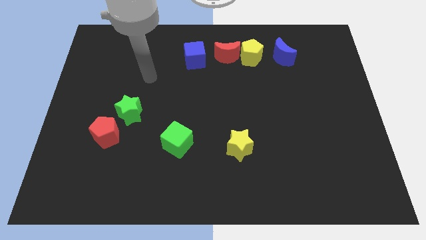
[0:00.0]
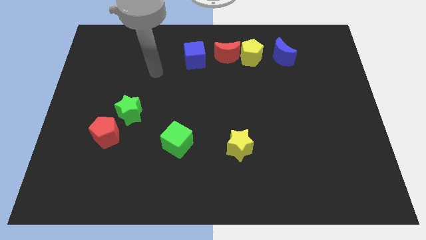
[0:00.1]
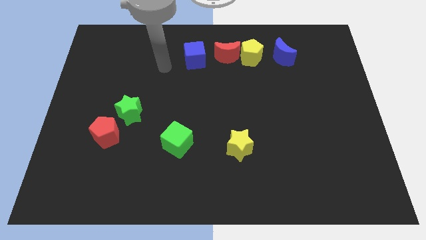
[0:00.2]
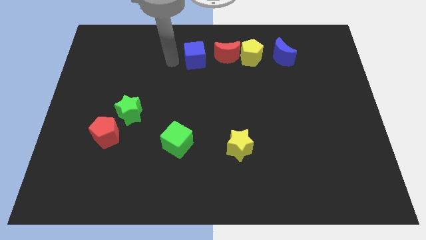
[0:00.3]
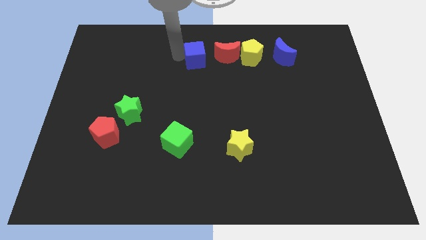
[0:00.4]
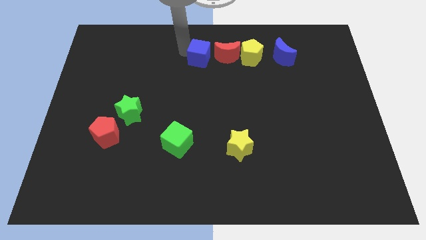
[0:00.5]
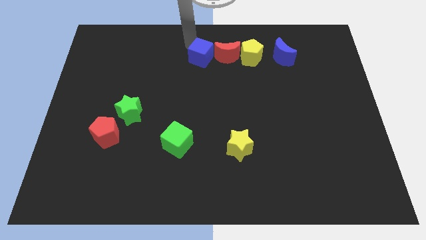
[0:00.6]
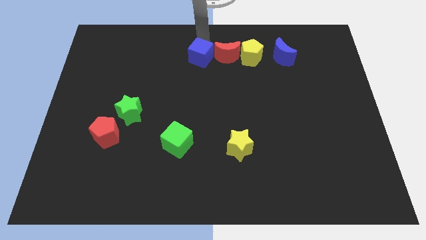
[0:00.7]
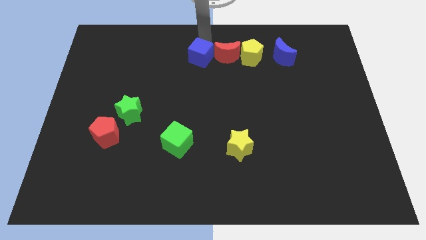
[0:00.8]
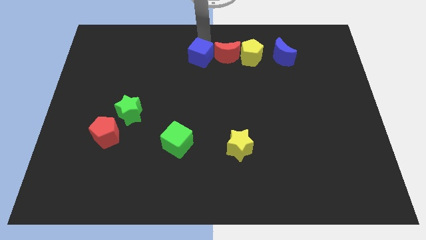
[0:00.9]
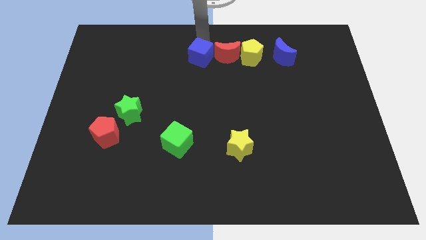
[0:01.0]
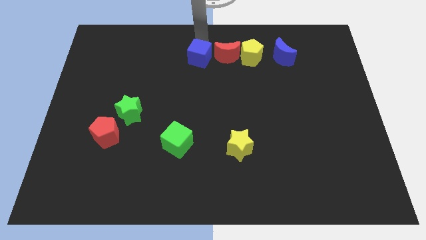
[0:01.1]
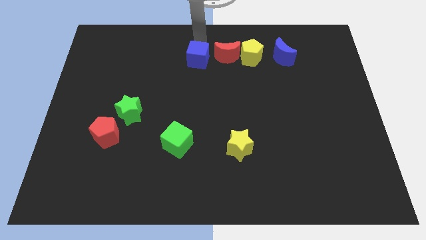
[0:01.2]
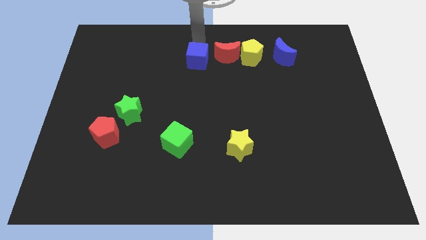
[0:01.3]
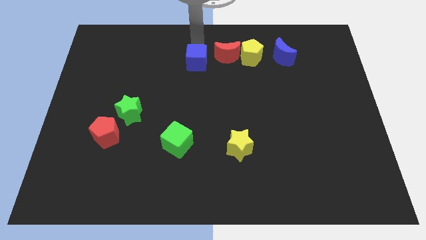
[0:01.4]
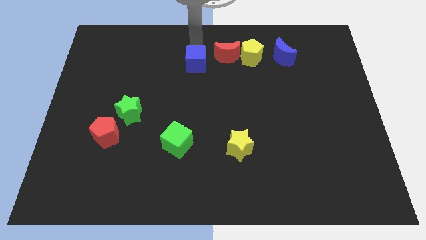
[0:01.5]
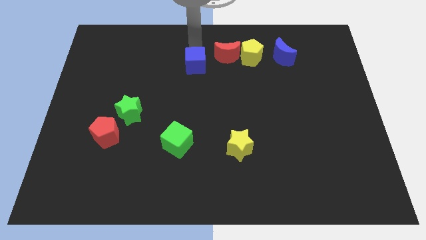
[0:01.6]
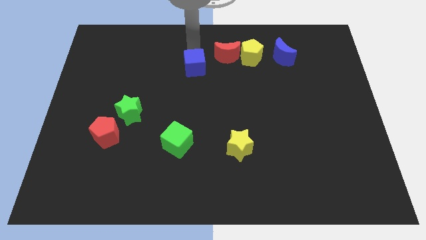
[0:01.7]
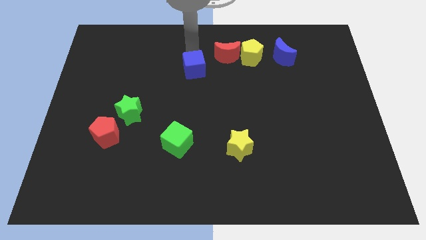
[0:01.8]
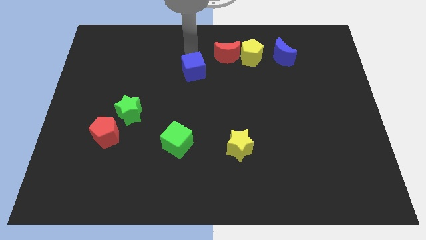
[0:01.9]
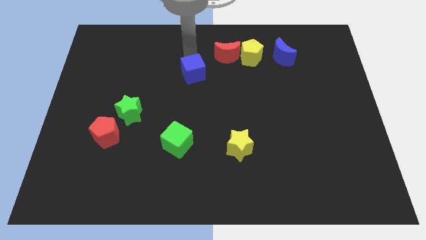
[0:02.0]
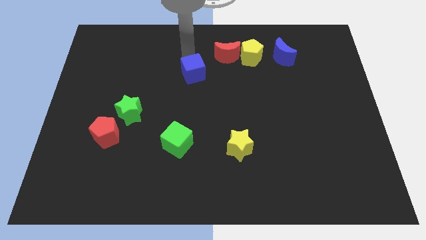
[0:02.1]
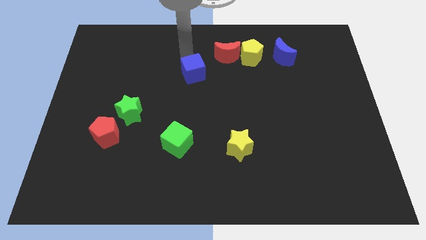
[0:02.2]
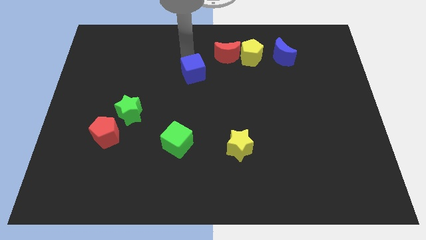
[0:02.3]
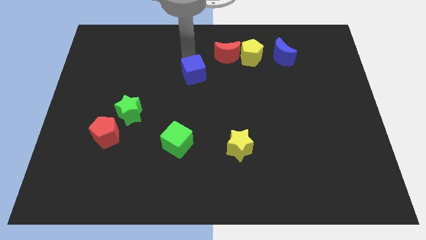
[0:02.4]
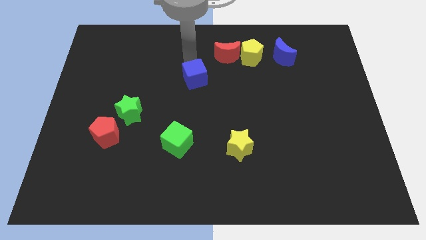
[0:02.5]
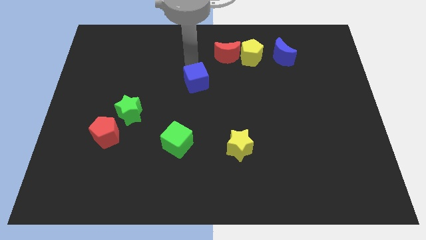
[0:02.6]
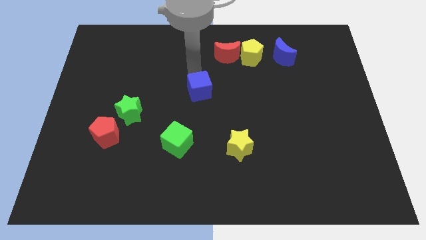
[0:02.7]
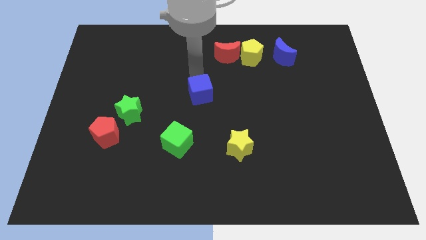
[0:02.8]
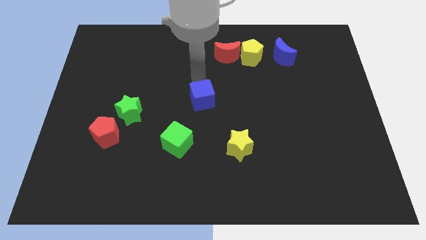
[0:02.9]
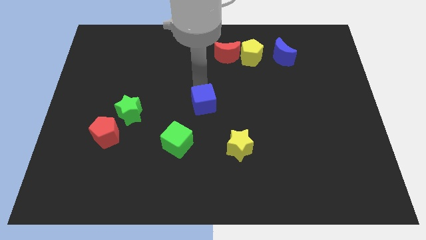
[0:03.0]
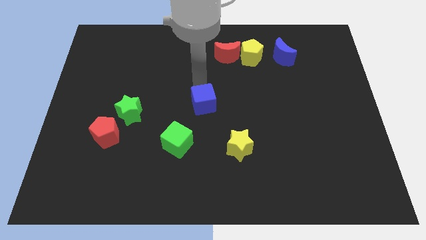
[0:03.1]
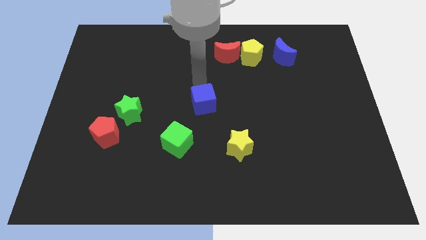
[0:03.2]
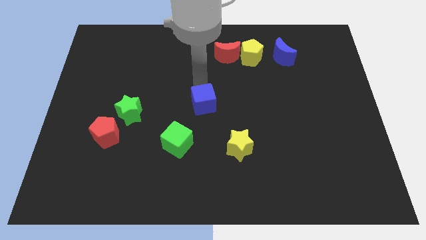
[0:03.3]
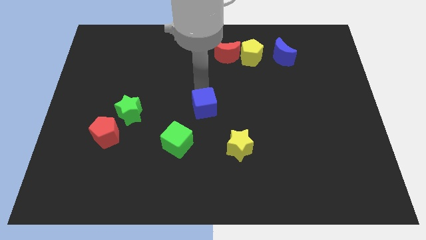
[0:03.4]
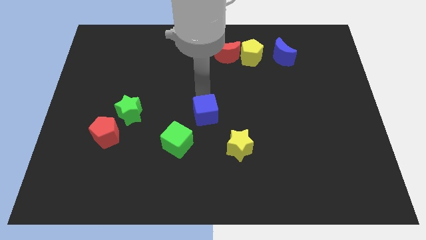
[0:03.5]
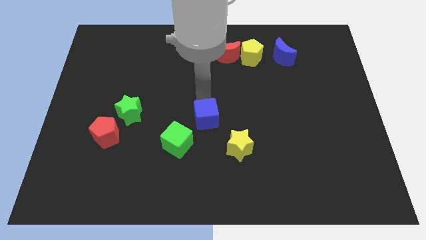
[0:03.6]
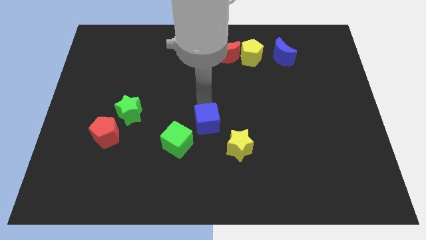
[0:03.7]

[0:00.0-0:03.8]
slide the blue cube down

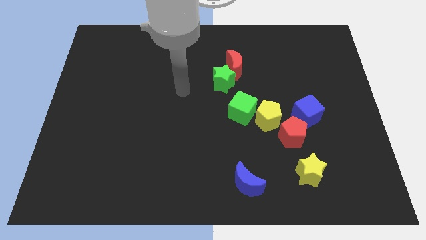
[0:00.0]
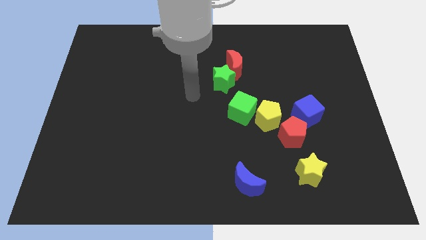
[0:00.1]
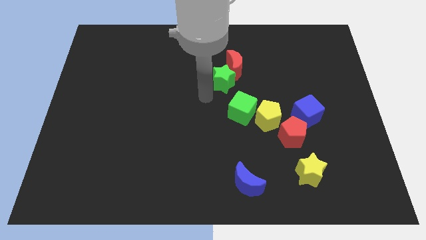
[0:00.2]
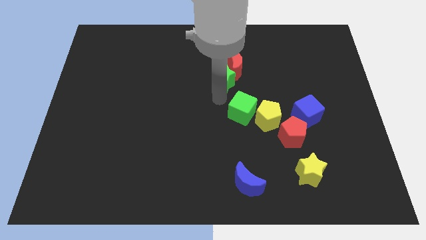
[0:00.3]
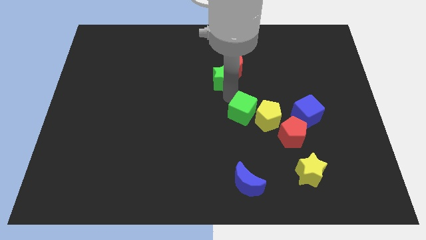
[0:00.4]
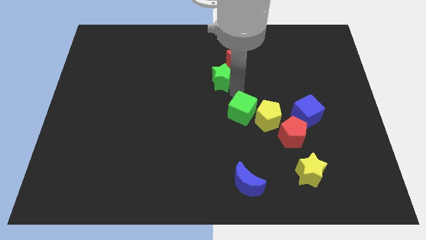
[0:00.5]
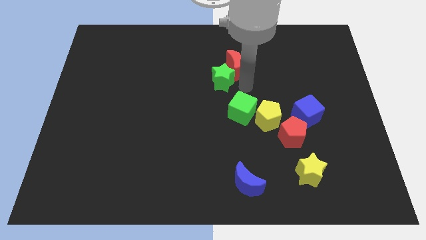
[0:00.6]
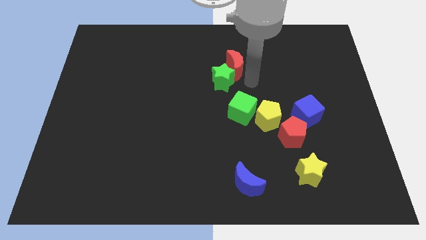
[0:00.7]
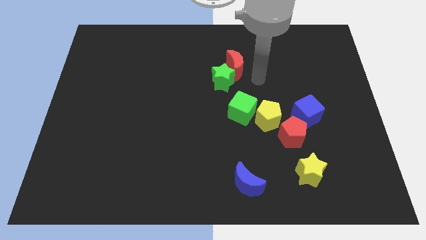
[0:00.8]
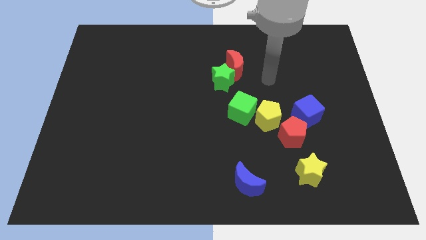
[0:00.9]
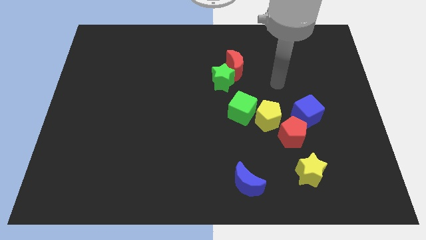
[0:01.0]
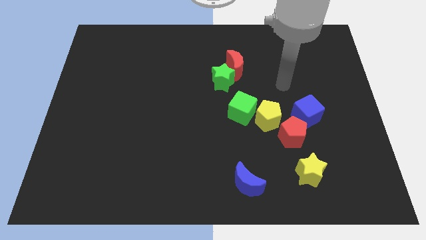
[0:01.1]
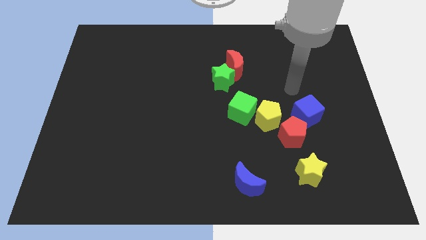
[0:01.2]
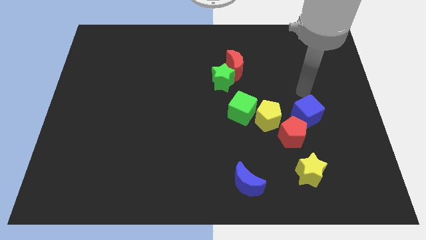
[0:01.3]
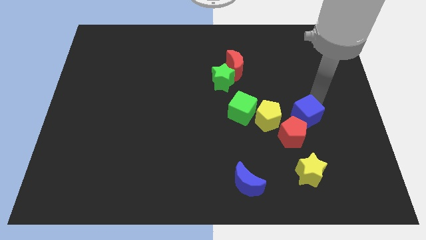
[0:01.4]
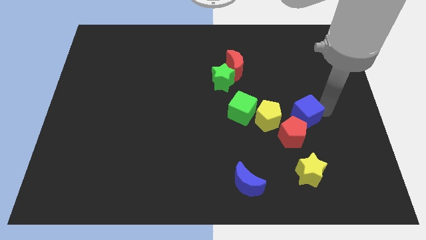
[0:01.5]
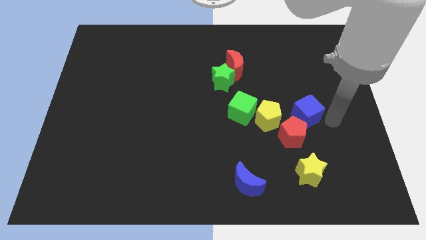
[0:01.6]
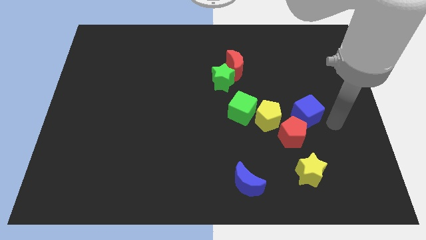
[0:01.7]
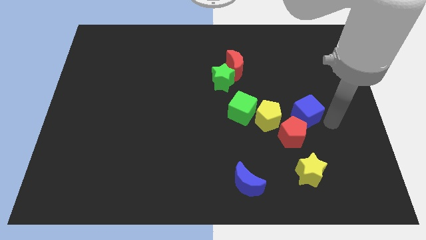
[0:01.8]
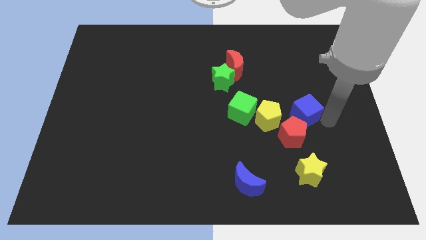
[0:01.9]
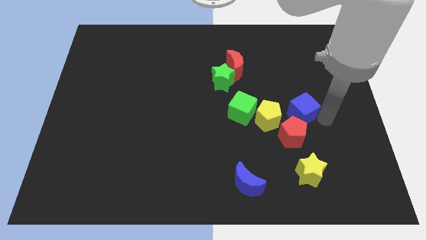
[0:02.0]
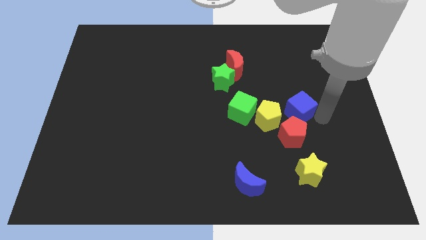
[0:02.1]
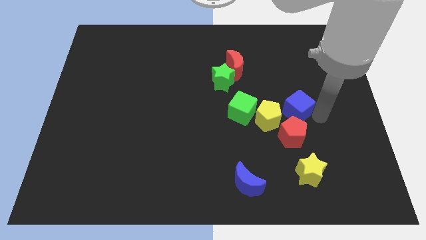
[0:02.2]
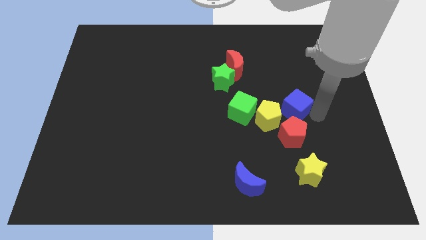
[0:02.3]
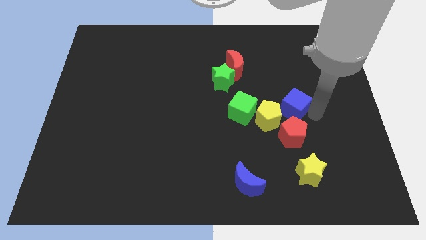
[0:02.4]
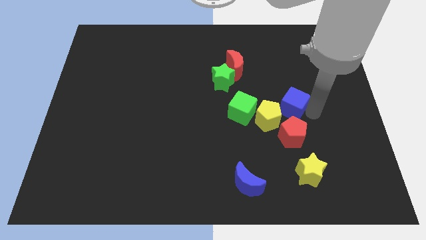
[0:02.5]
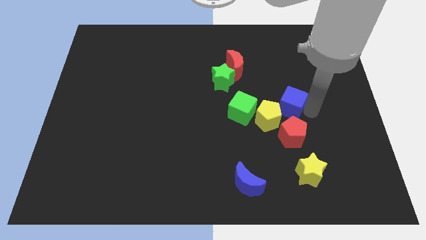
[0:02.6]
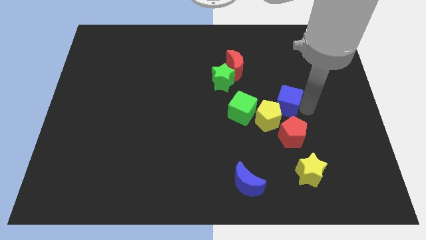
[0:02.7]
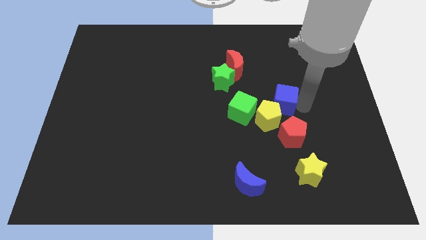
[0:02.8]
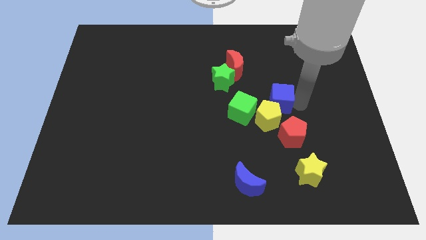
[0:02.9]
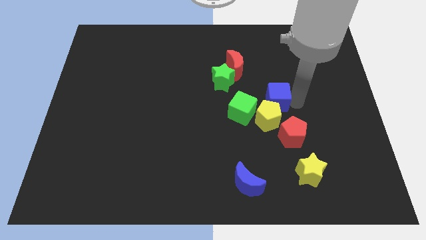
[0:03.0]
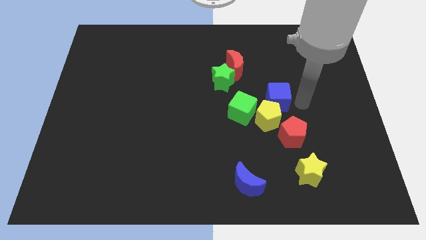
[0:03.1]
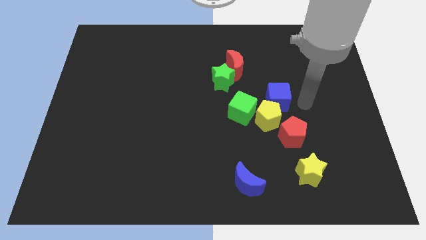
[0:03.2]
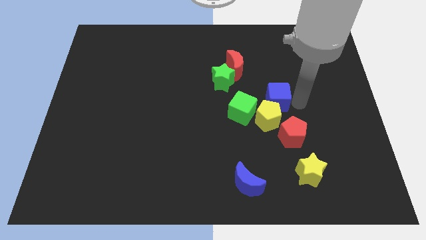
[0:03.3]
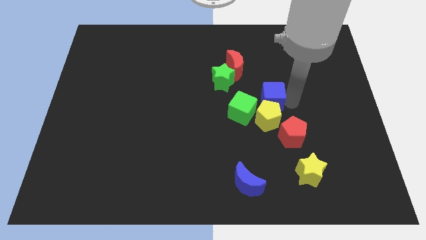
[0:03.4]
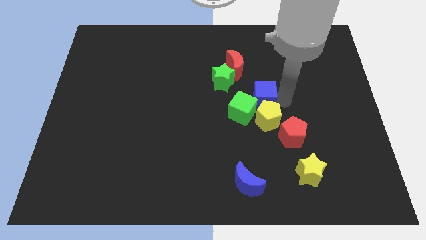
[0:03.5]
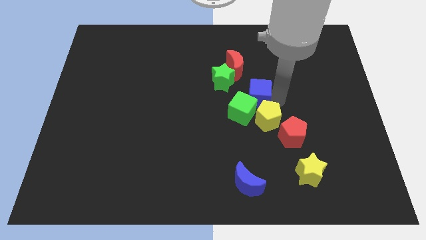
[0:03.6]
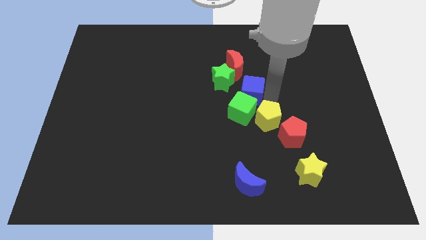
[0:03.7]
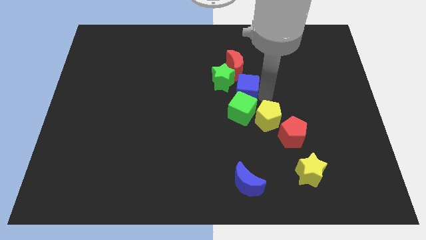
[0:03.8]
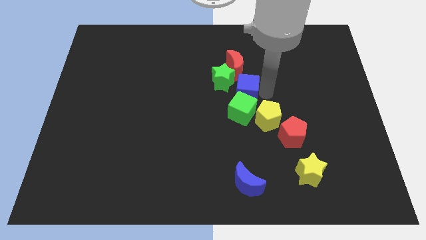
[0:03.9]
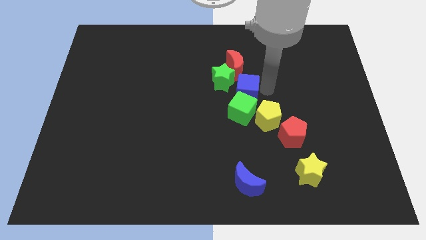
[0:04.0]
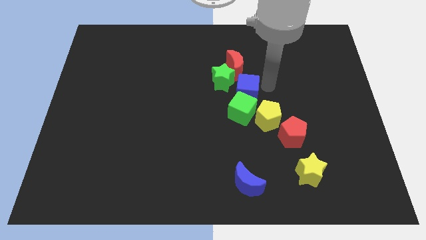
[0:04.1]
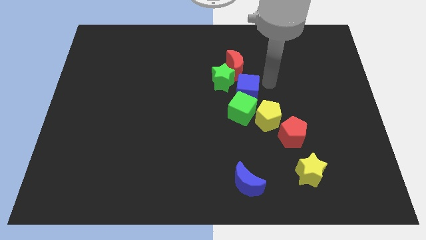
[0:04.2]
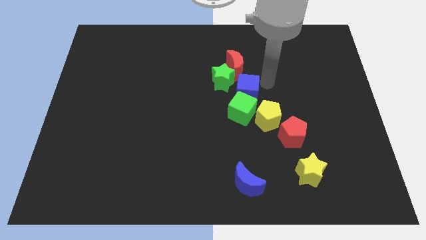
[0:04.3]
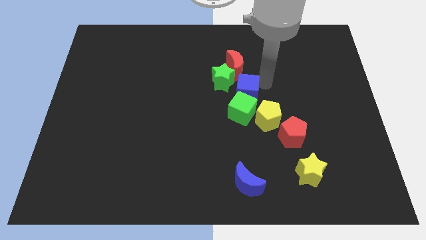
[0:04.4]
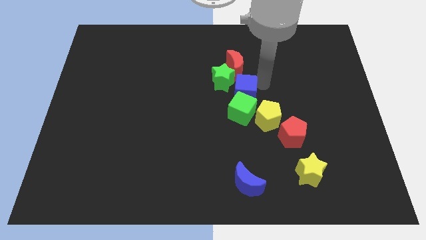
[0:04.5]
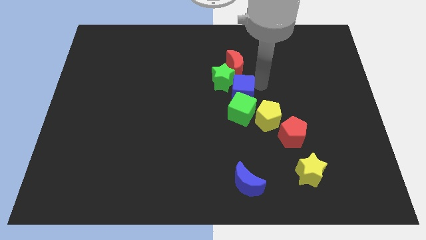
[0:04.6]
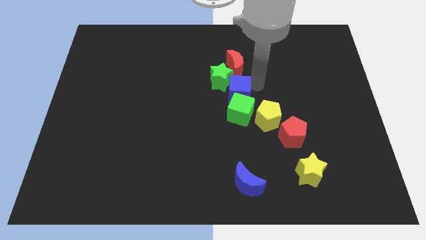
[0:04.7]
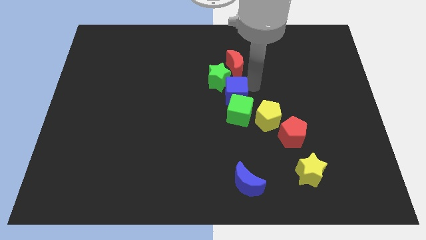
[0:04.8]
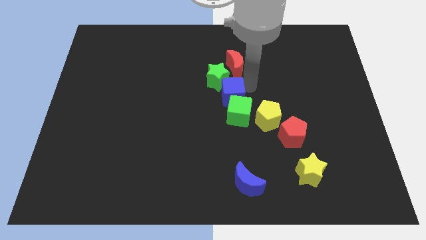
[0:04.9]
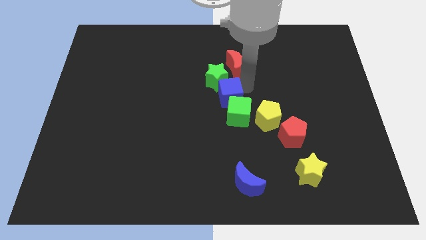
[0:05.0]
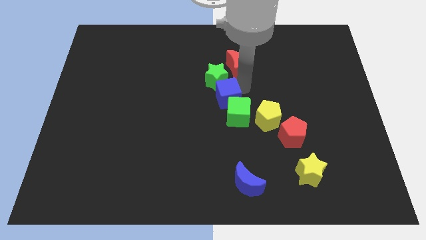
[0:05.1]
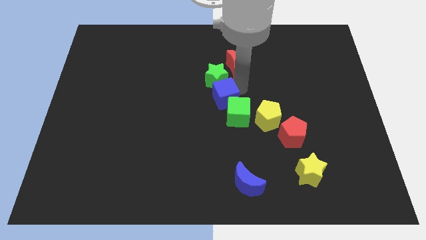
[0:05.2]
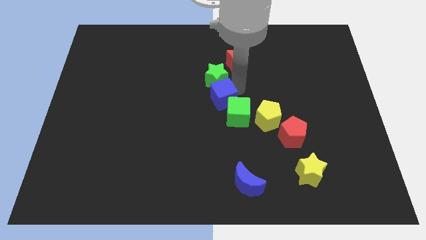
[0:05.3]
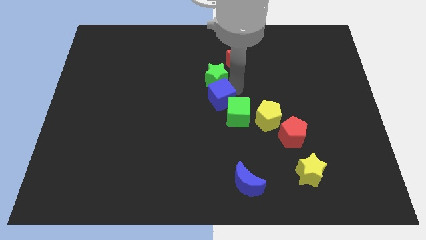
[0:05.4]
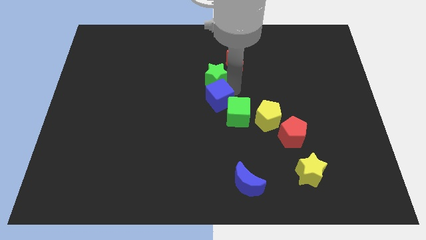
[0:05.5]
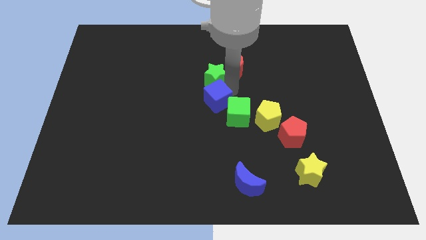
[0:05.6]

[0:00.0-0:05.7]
slide the blue cube left
